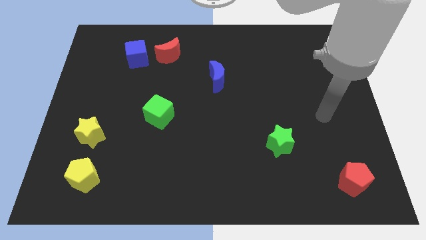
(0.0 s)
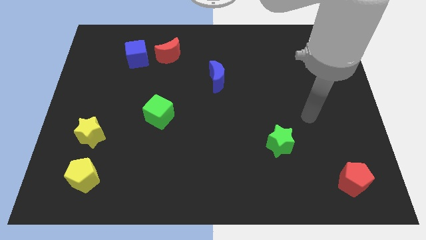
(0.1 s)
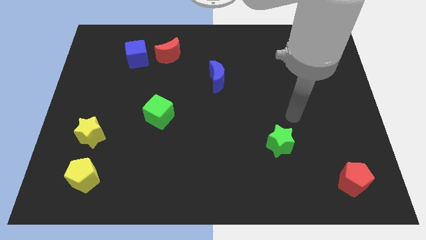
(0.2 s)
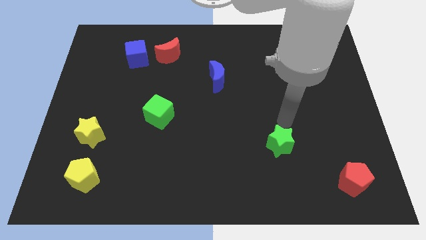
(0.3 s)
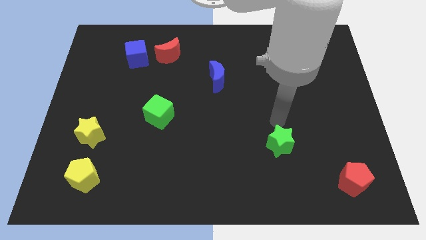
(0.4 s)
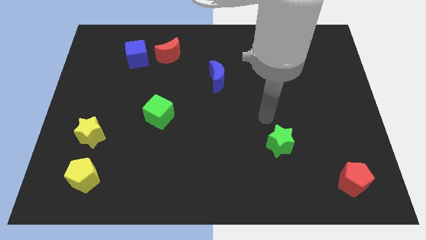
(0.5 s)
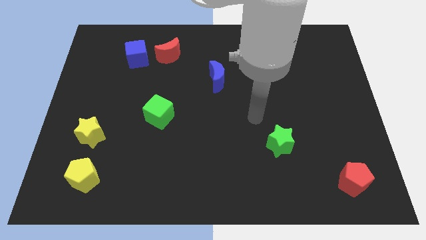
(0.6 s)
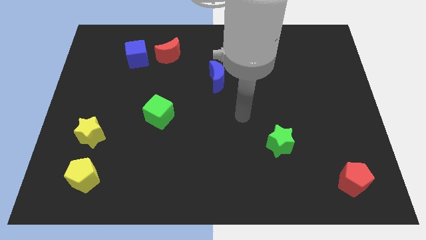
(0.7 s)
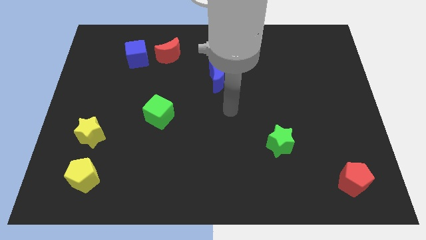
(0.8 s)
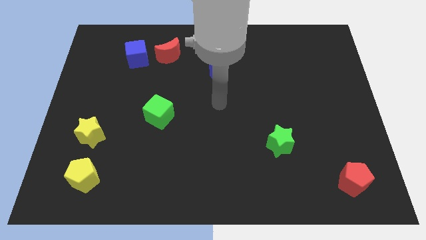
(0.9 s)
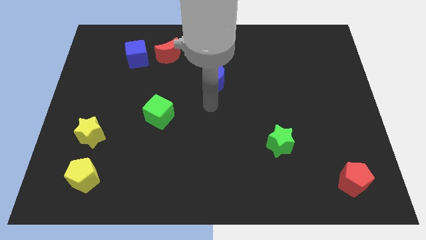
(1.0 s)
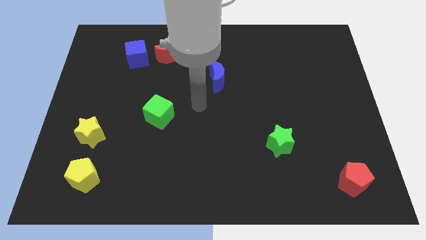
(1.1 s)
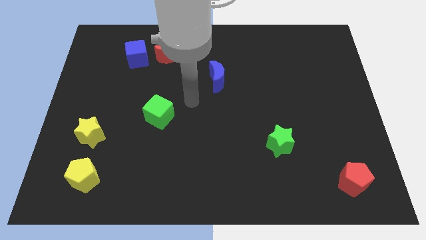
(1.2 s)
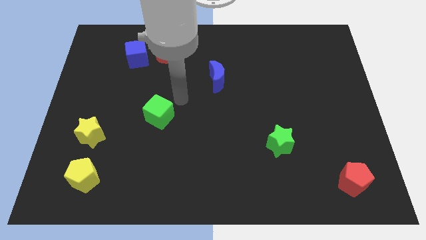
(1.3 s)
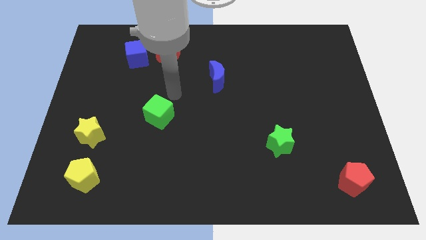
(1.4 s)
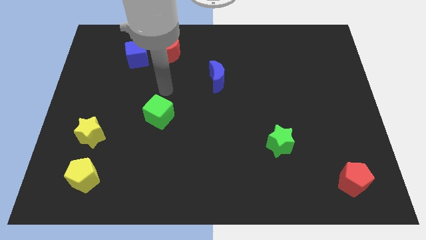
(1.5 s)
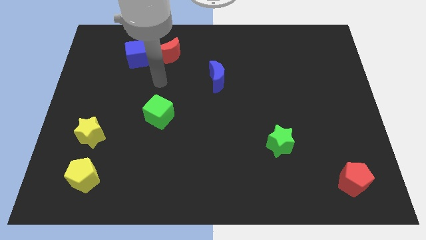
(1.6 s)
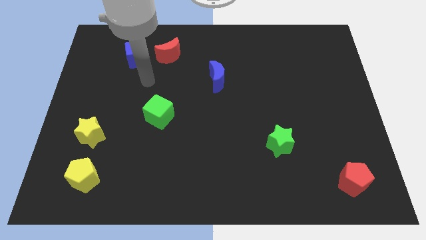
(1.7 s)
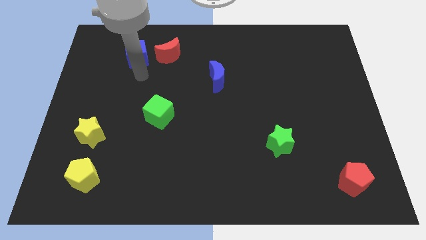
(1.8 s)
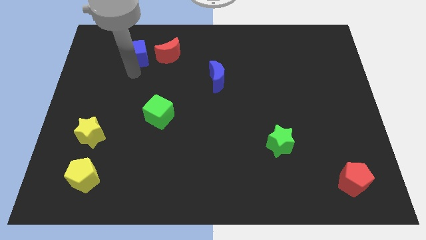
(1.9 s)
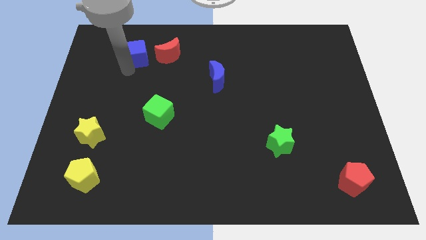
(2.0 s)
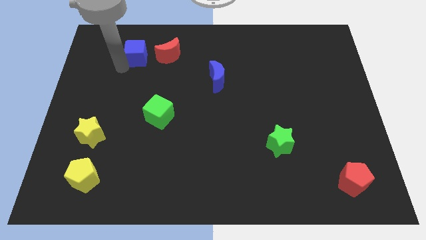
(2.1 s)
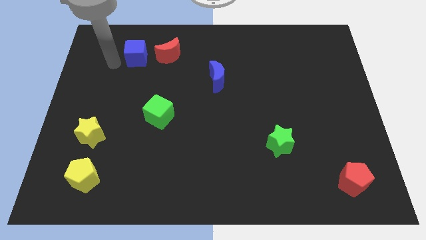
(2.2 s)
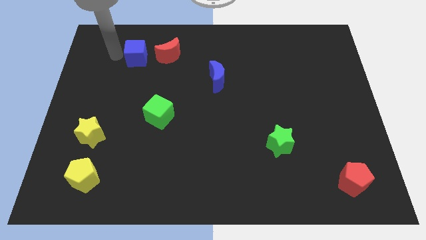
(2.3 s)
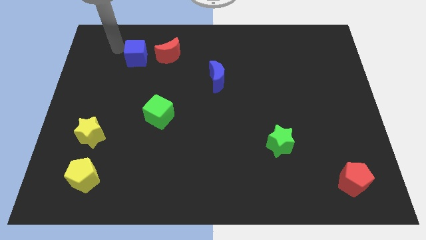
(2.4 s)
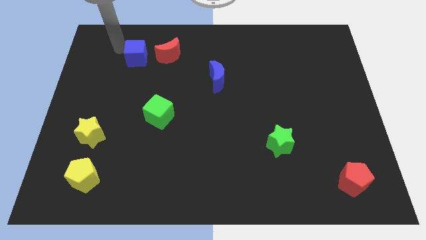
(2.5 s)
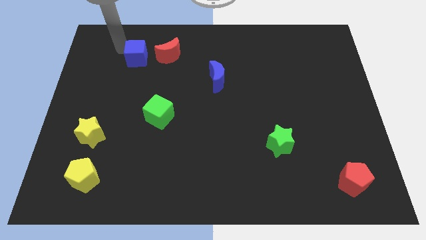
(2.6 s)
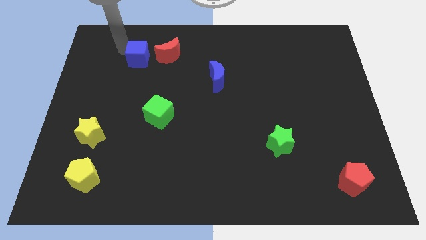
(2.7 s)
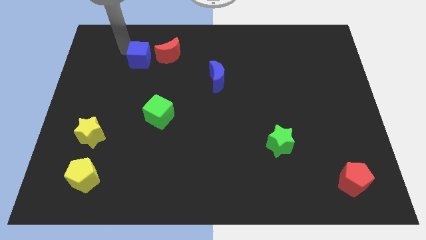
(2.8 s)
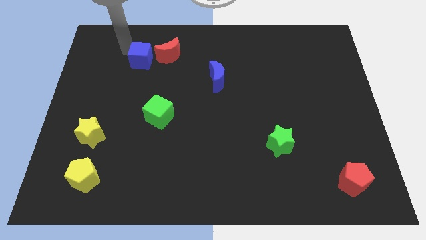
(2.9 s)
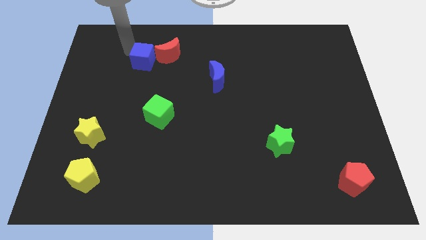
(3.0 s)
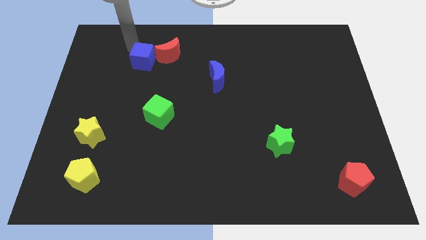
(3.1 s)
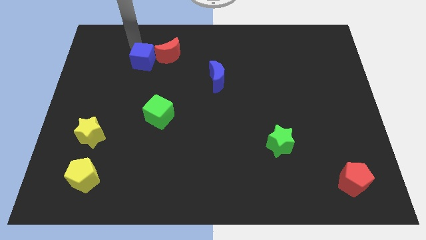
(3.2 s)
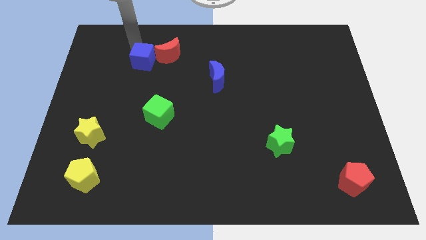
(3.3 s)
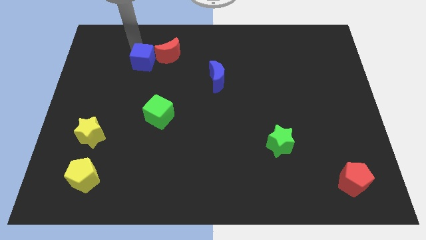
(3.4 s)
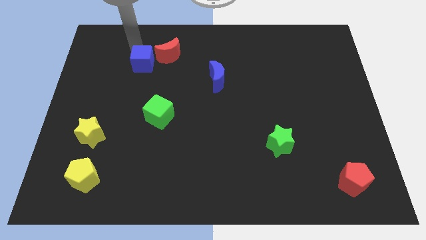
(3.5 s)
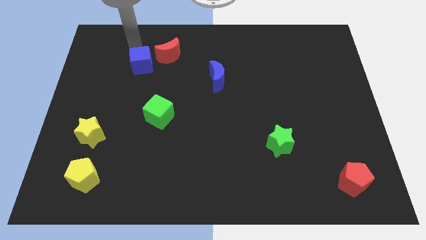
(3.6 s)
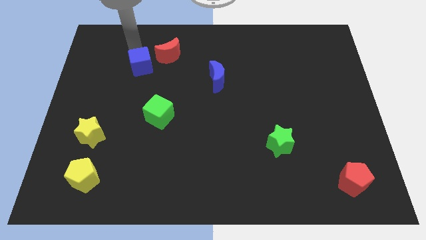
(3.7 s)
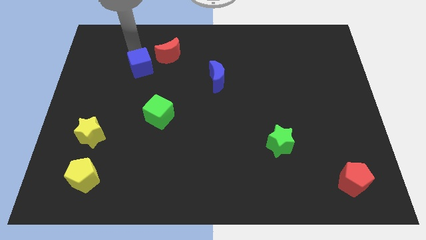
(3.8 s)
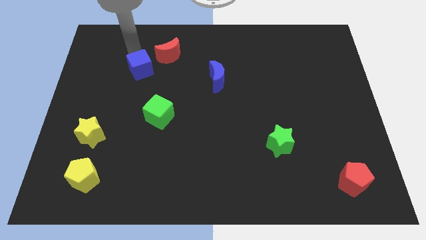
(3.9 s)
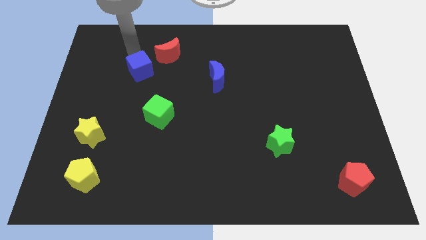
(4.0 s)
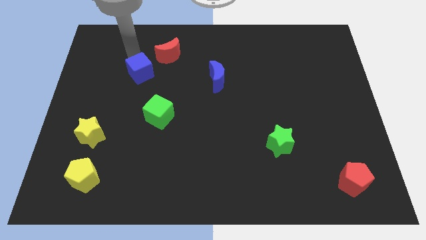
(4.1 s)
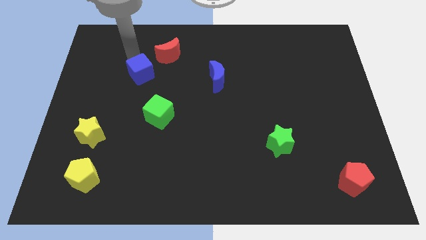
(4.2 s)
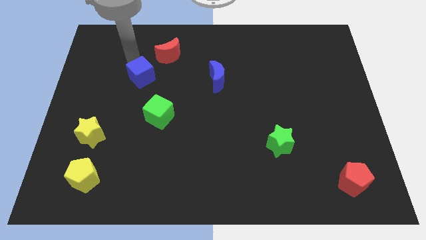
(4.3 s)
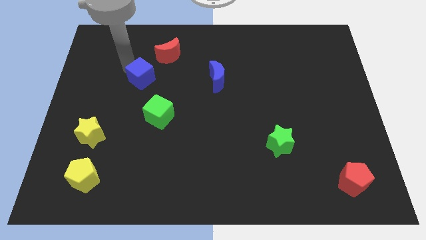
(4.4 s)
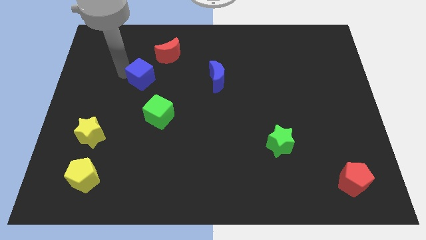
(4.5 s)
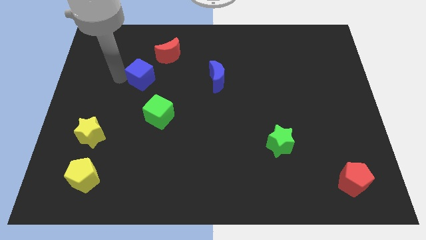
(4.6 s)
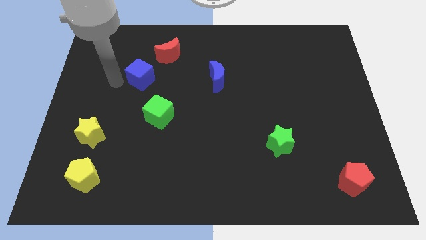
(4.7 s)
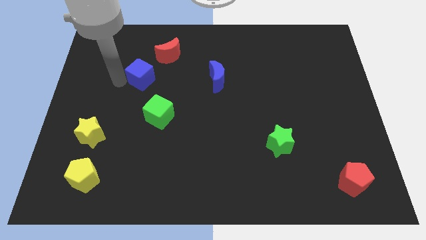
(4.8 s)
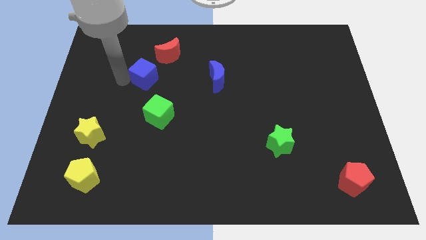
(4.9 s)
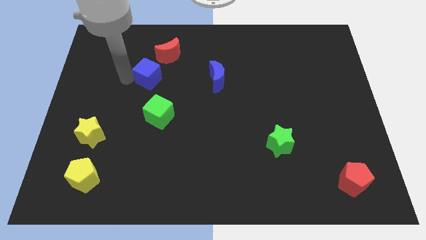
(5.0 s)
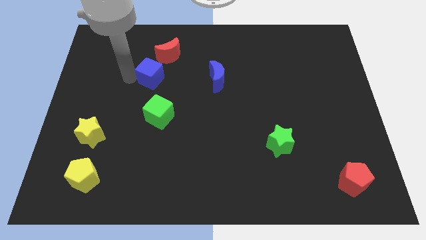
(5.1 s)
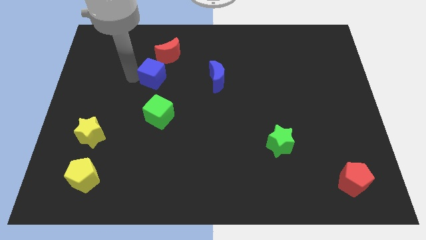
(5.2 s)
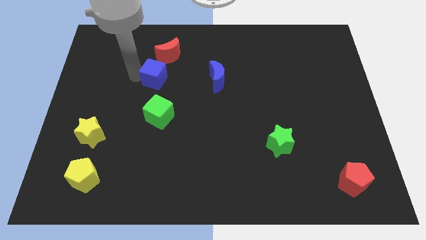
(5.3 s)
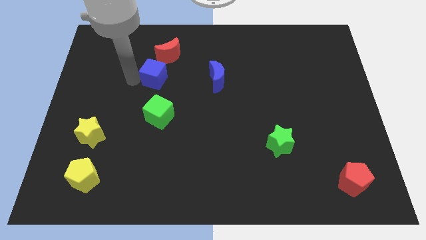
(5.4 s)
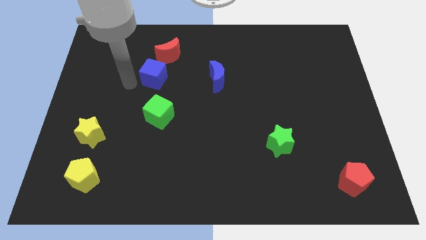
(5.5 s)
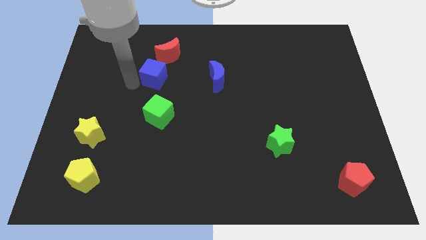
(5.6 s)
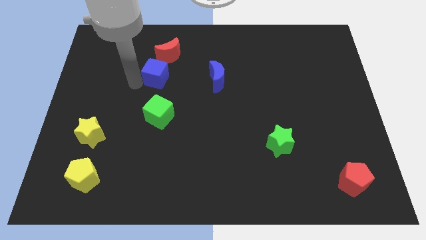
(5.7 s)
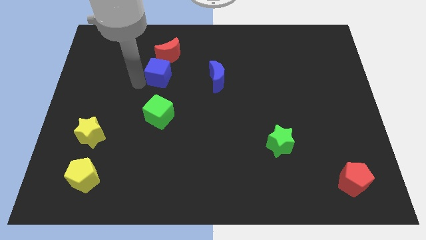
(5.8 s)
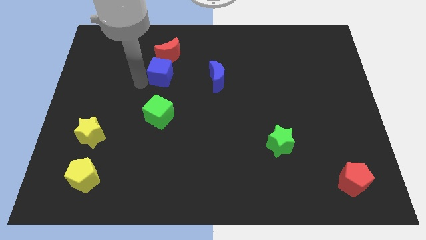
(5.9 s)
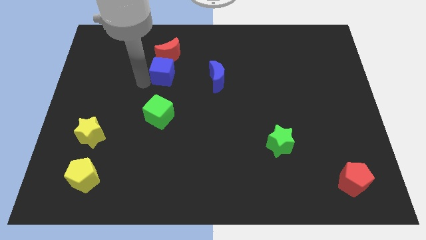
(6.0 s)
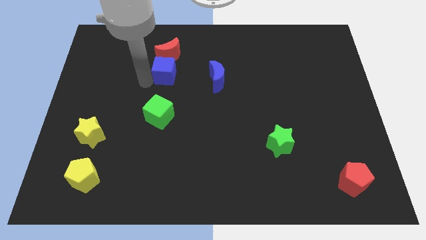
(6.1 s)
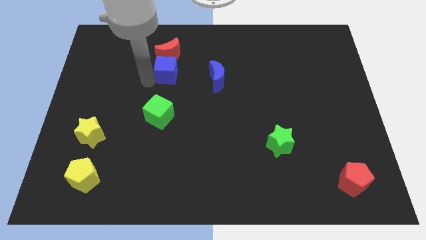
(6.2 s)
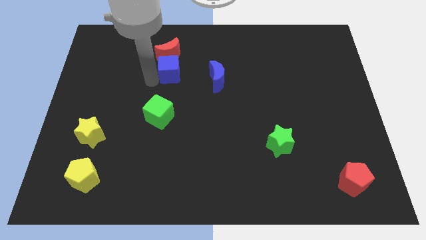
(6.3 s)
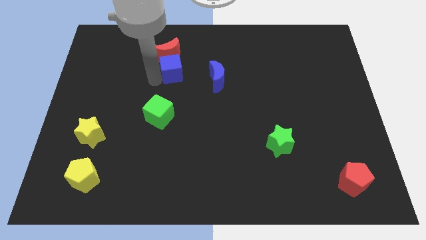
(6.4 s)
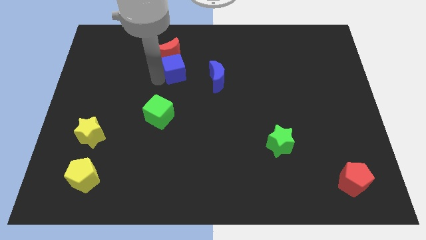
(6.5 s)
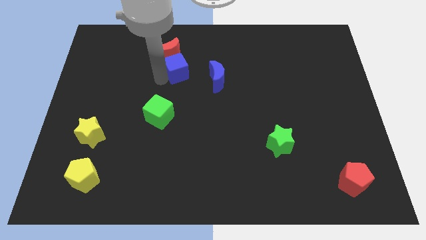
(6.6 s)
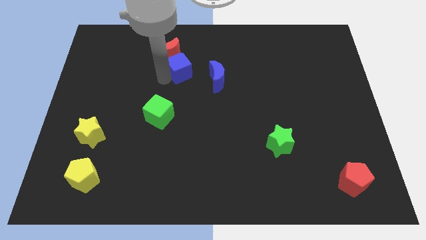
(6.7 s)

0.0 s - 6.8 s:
put the blue cube to the top left side of the blue moon
